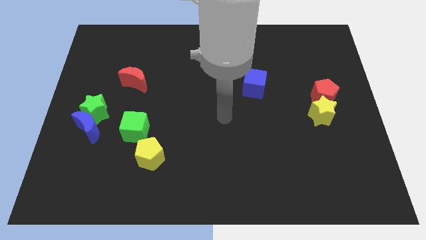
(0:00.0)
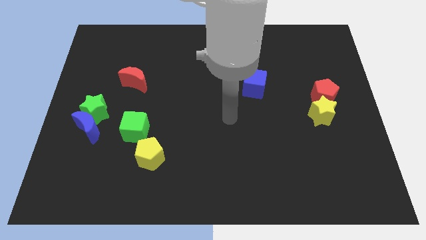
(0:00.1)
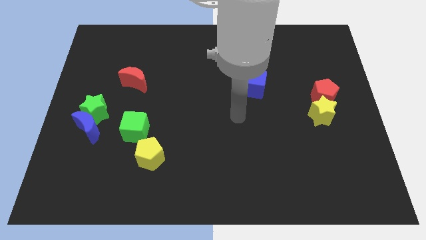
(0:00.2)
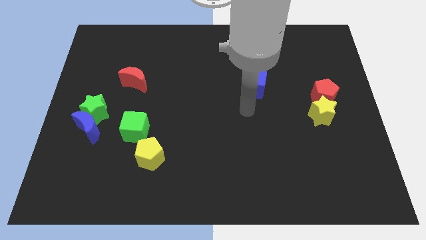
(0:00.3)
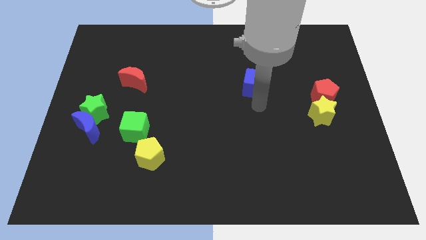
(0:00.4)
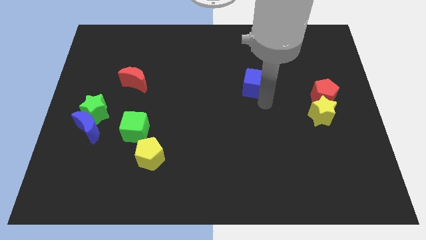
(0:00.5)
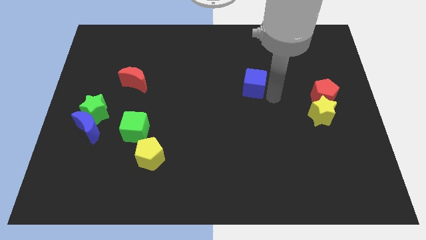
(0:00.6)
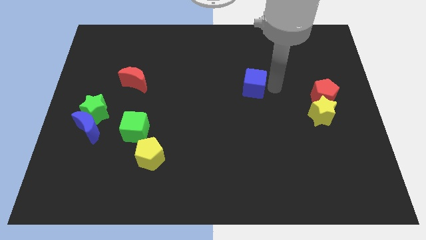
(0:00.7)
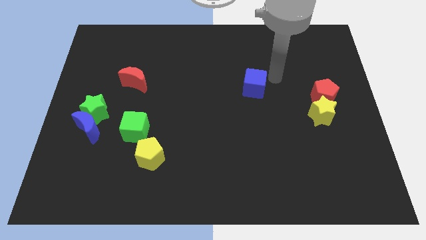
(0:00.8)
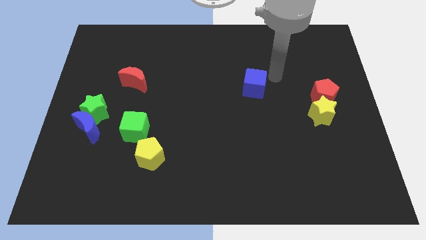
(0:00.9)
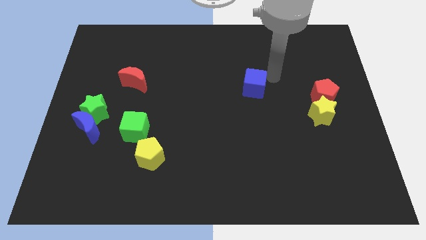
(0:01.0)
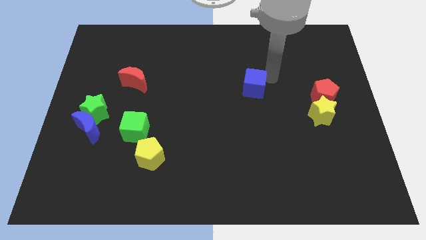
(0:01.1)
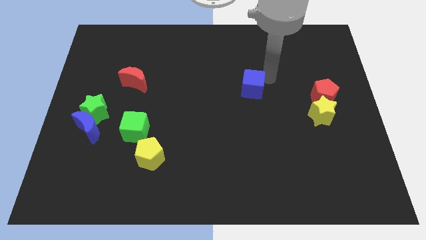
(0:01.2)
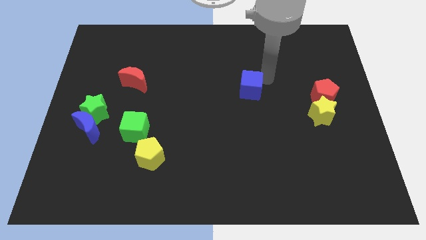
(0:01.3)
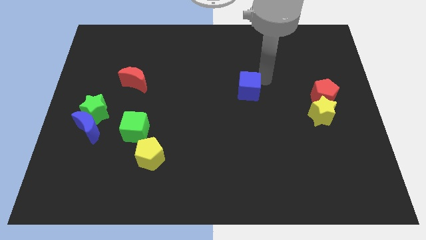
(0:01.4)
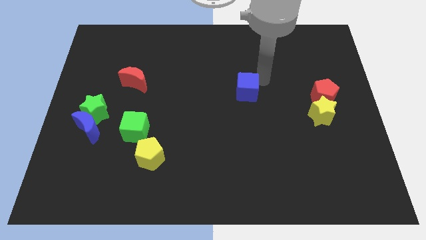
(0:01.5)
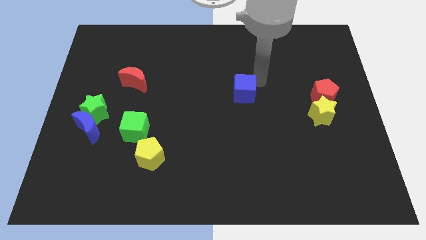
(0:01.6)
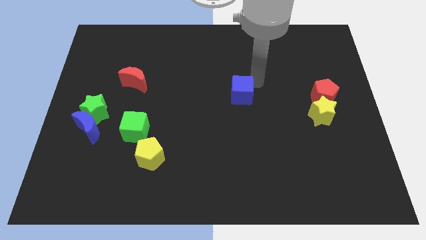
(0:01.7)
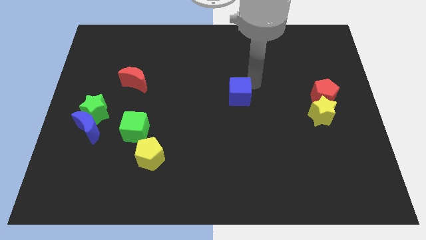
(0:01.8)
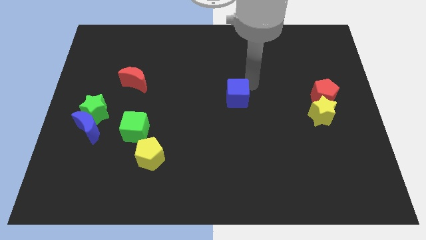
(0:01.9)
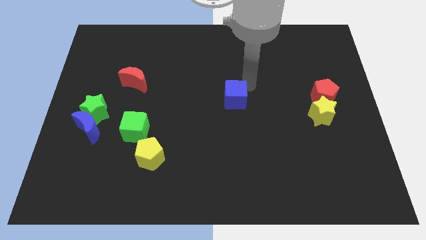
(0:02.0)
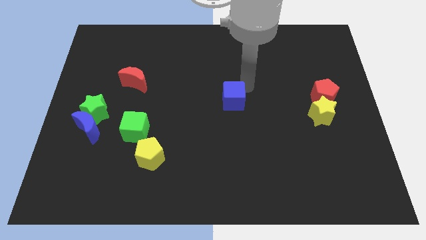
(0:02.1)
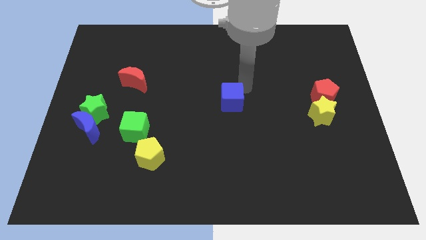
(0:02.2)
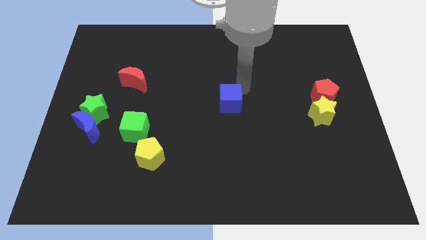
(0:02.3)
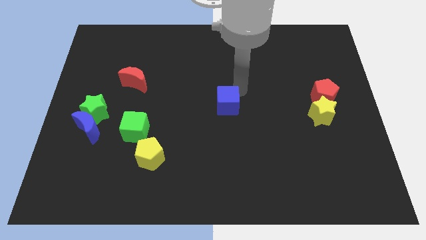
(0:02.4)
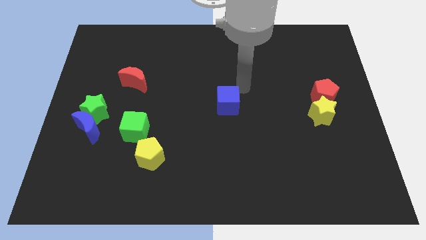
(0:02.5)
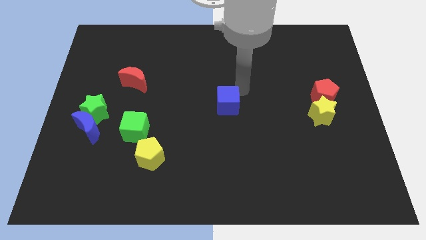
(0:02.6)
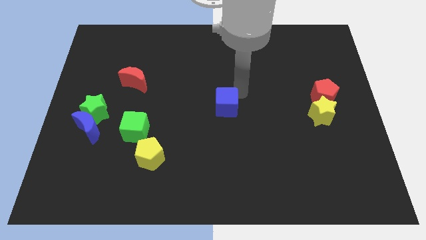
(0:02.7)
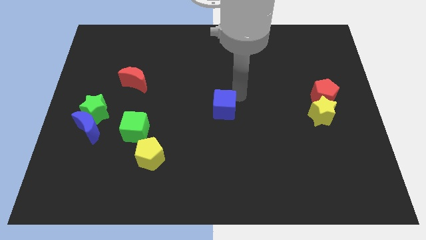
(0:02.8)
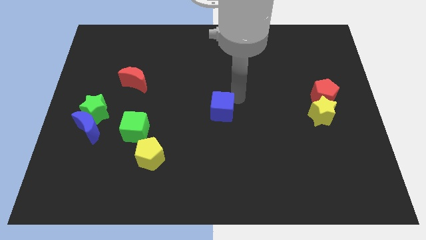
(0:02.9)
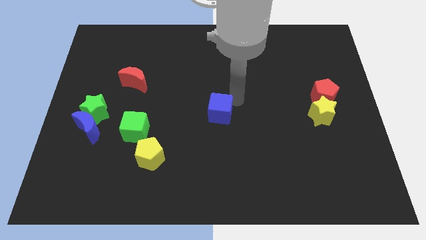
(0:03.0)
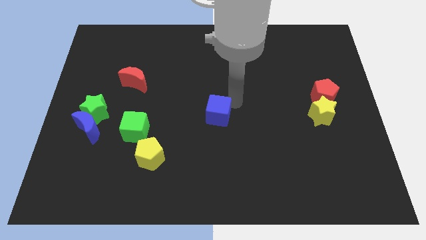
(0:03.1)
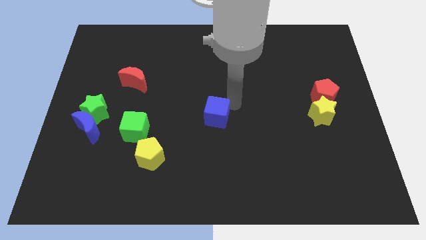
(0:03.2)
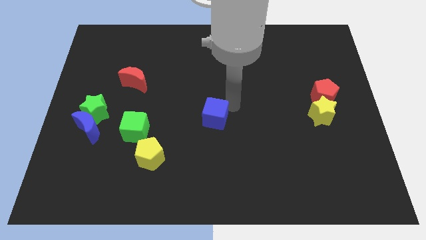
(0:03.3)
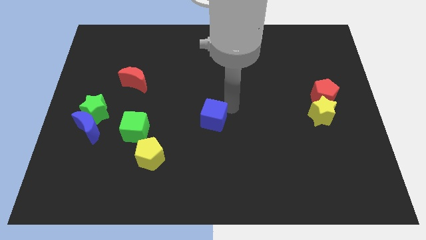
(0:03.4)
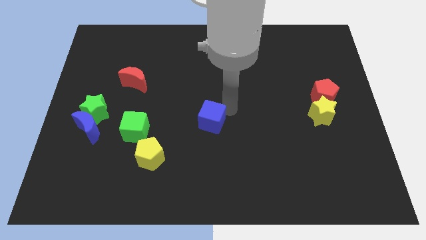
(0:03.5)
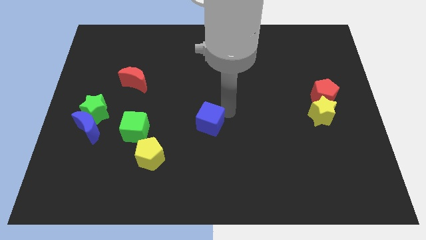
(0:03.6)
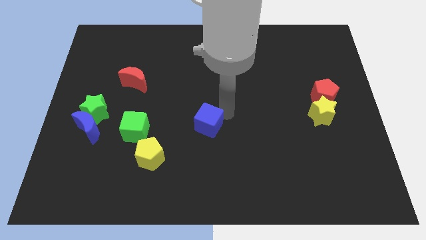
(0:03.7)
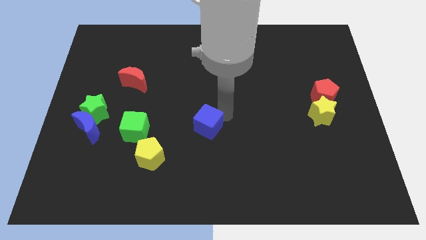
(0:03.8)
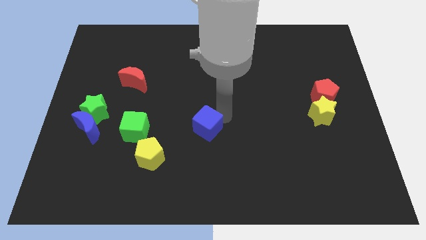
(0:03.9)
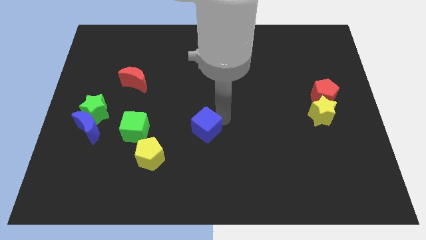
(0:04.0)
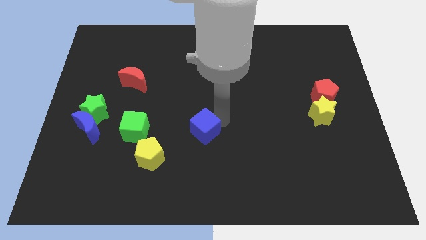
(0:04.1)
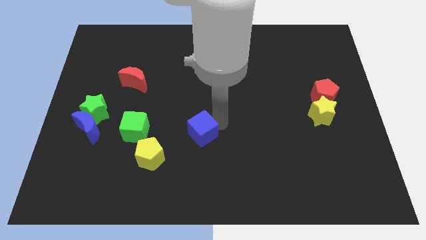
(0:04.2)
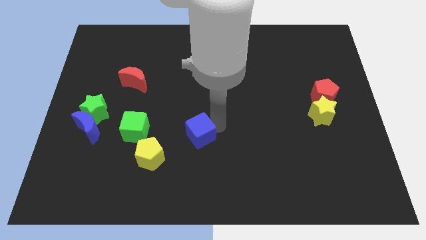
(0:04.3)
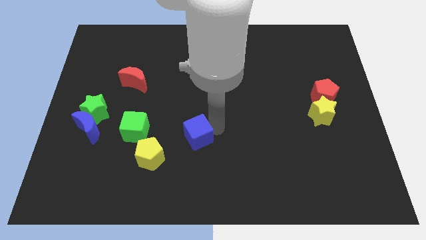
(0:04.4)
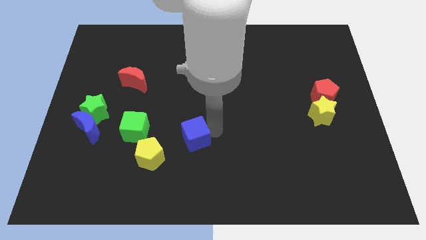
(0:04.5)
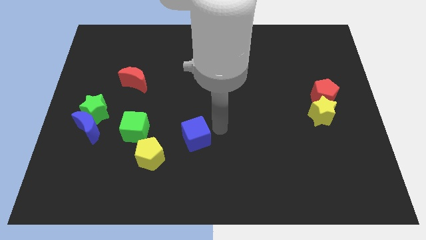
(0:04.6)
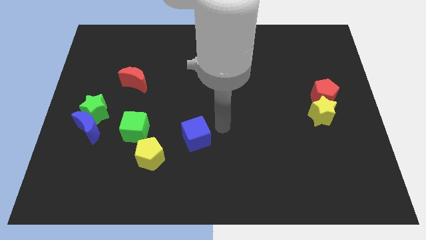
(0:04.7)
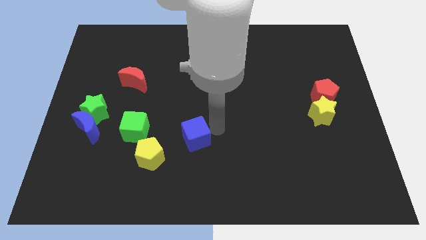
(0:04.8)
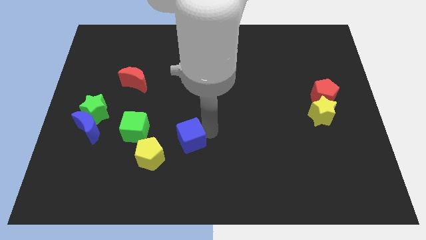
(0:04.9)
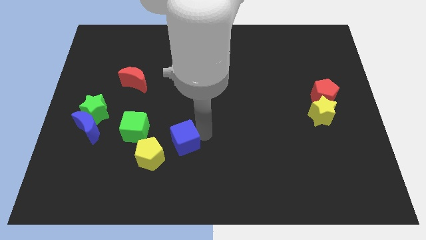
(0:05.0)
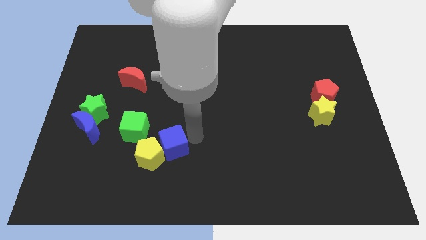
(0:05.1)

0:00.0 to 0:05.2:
push the blue cube towards the yellow pentagon

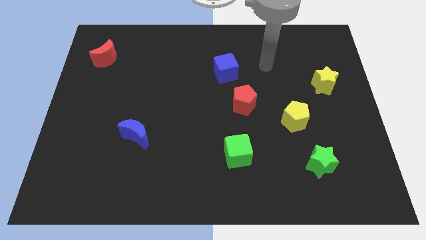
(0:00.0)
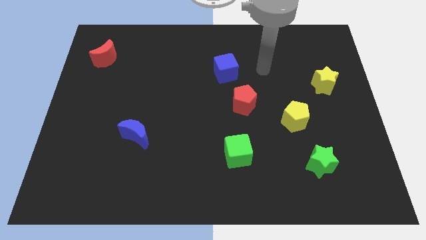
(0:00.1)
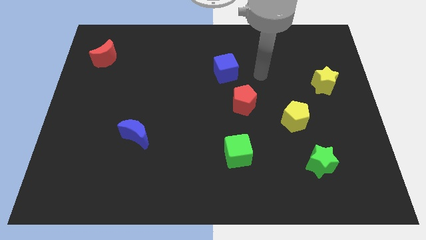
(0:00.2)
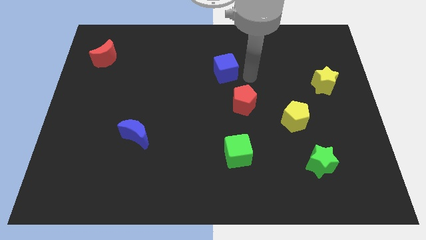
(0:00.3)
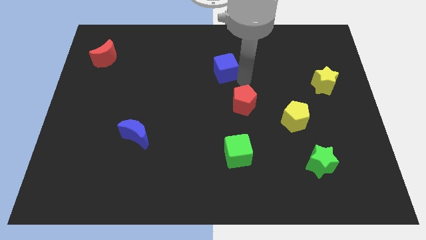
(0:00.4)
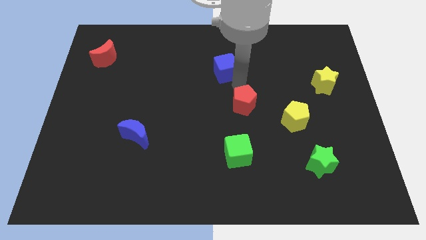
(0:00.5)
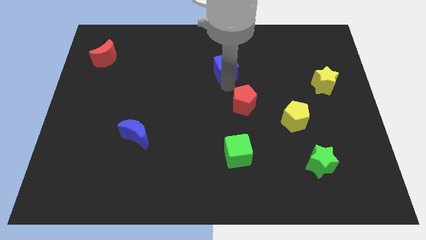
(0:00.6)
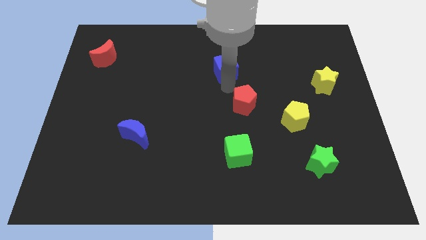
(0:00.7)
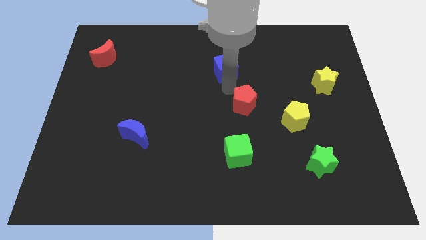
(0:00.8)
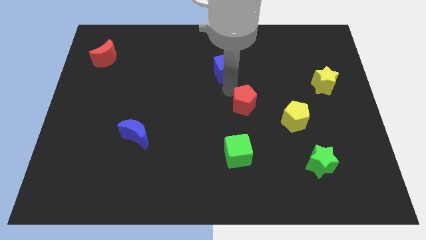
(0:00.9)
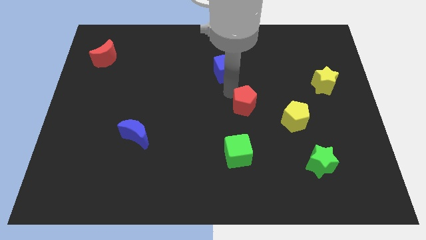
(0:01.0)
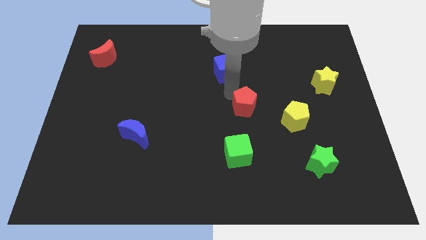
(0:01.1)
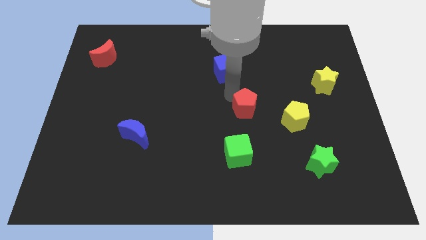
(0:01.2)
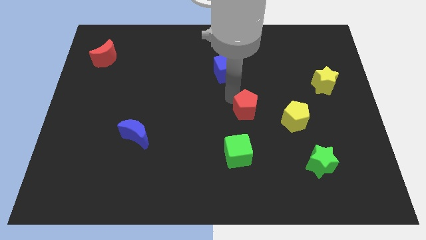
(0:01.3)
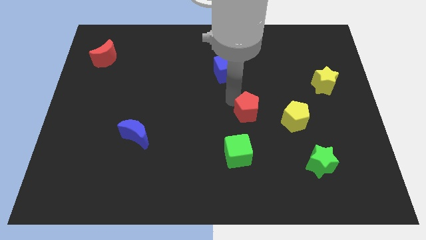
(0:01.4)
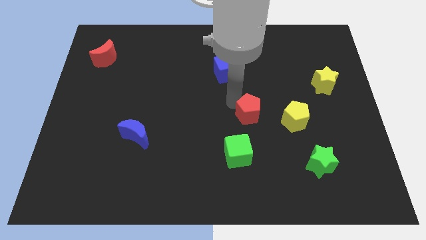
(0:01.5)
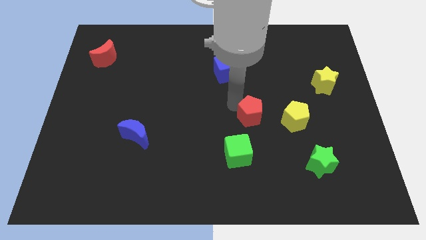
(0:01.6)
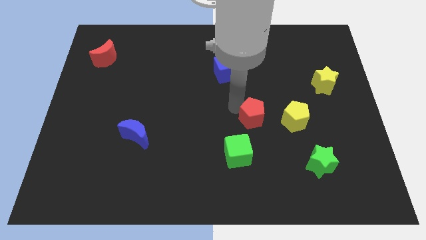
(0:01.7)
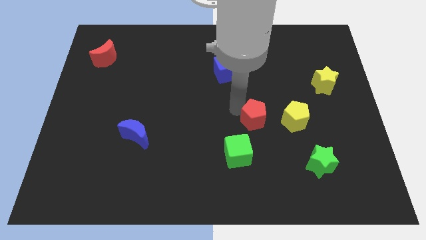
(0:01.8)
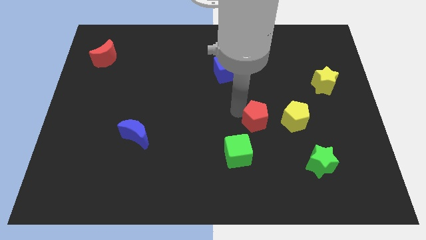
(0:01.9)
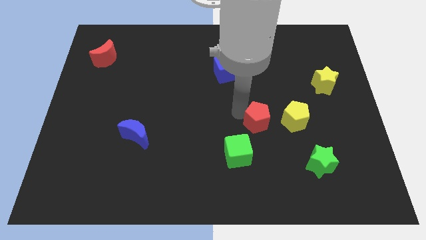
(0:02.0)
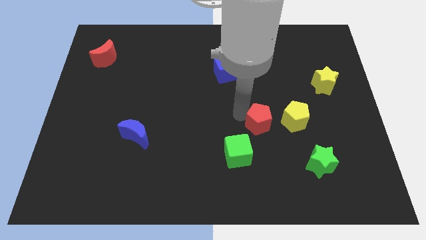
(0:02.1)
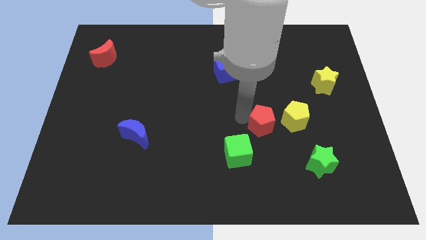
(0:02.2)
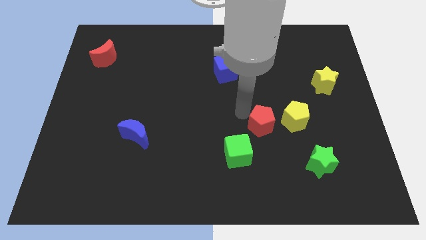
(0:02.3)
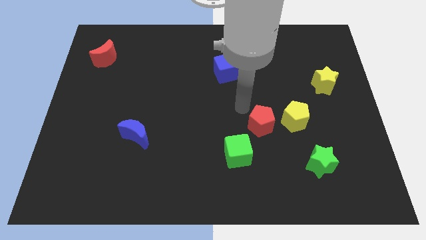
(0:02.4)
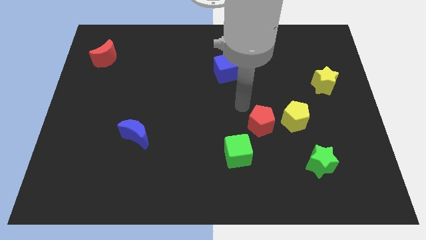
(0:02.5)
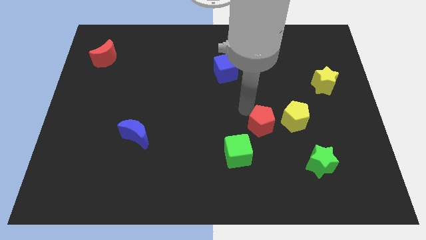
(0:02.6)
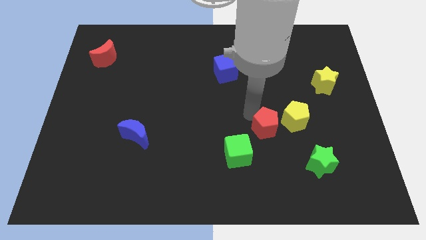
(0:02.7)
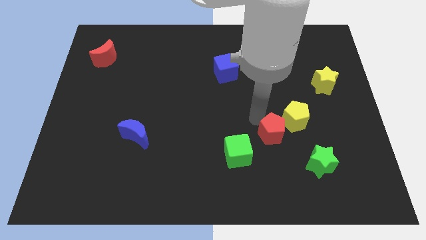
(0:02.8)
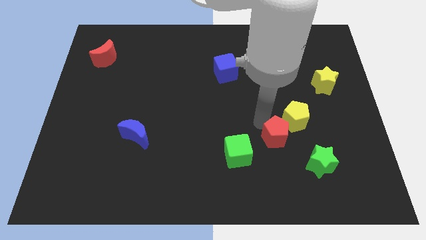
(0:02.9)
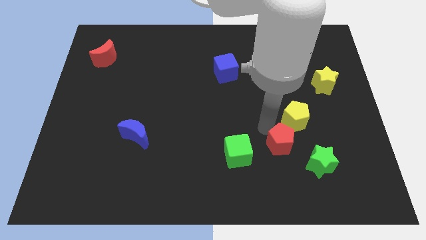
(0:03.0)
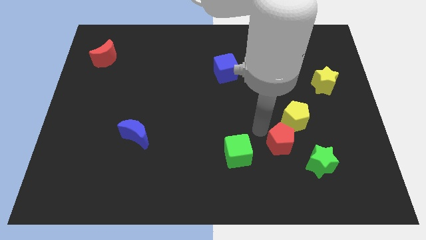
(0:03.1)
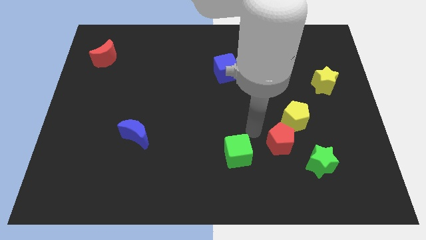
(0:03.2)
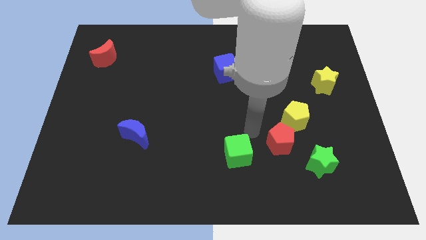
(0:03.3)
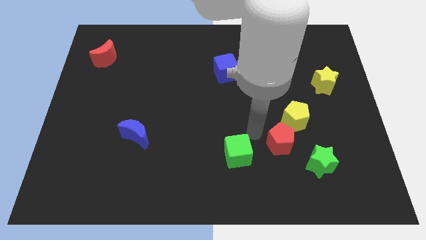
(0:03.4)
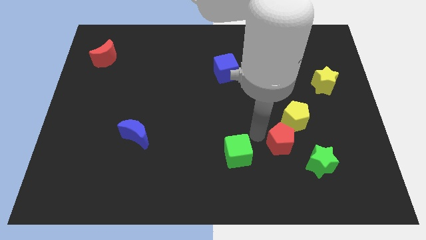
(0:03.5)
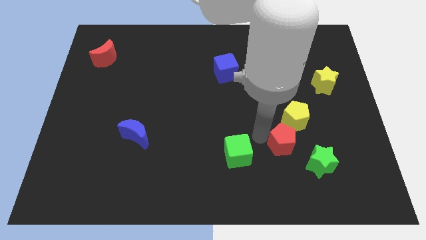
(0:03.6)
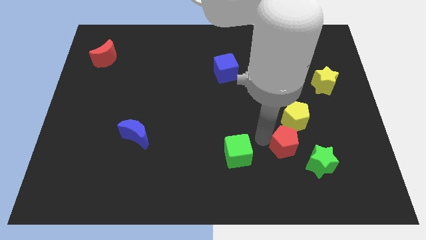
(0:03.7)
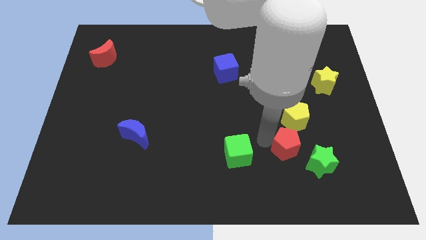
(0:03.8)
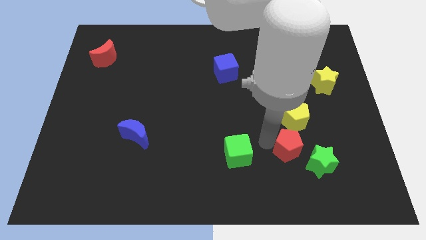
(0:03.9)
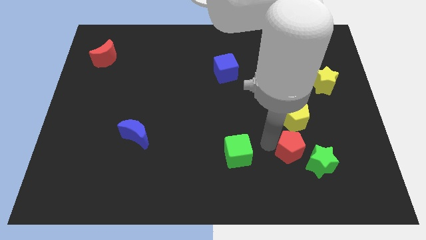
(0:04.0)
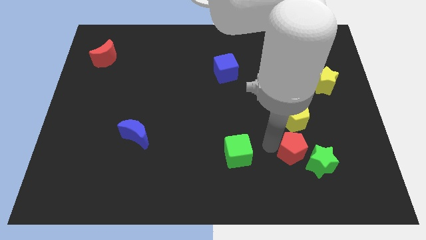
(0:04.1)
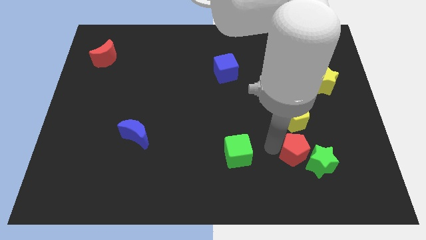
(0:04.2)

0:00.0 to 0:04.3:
put the red pentagon towards the green star
